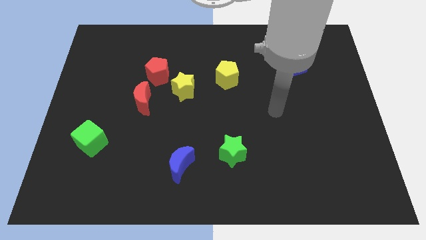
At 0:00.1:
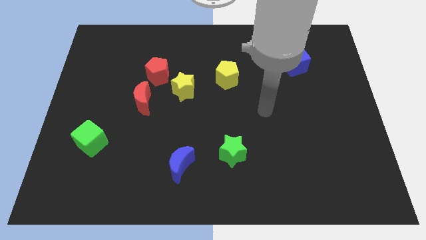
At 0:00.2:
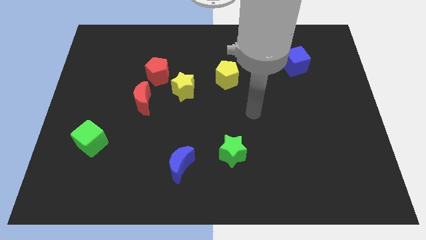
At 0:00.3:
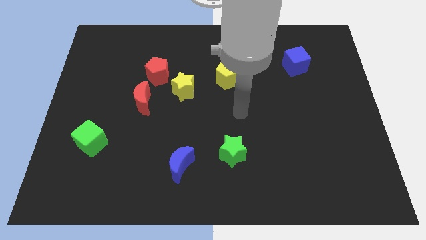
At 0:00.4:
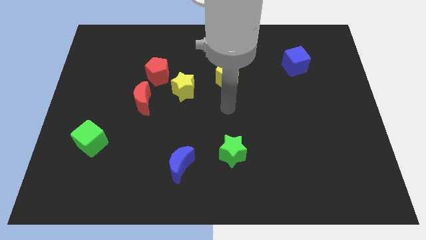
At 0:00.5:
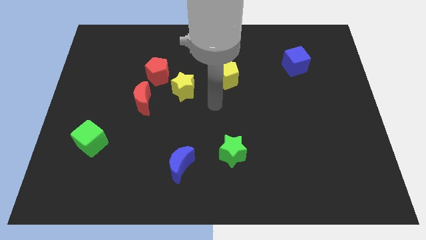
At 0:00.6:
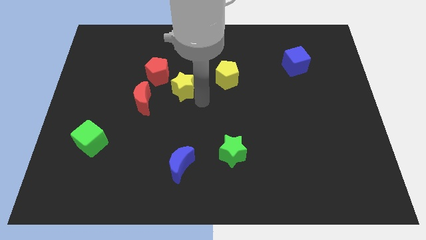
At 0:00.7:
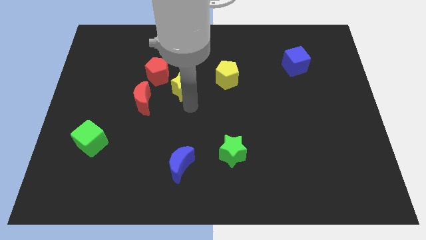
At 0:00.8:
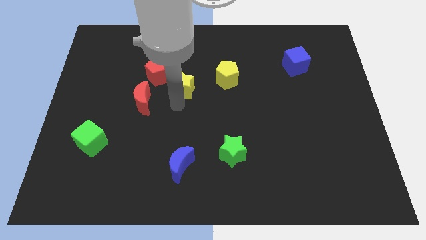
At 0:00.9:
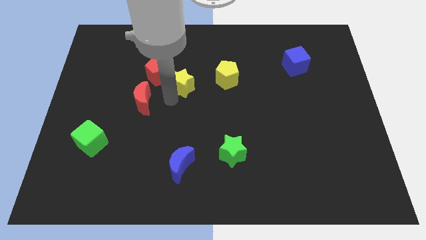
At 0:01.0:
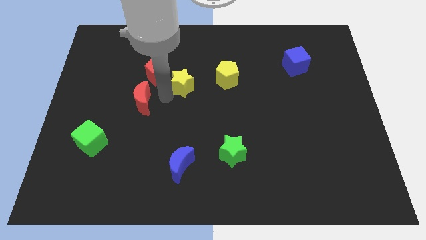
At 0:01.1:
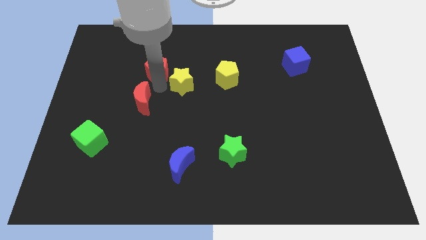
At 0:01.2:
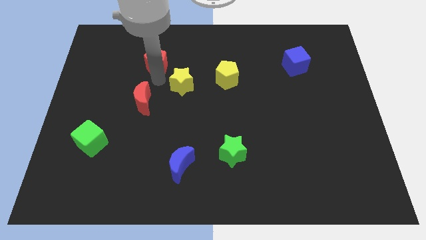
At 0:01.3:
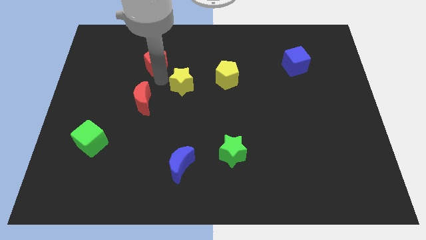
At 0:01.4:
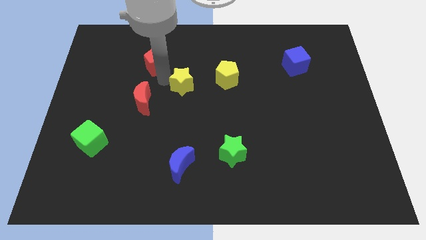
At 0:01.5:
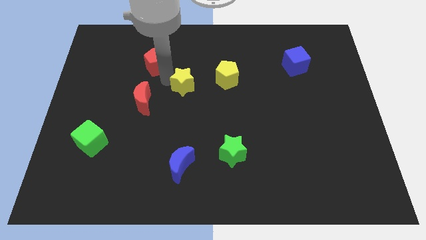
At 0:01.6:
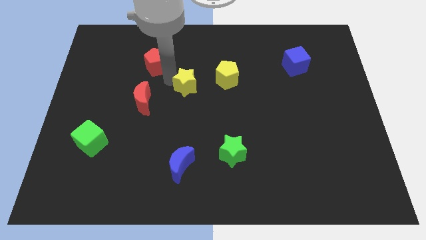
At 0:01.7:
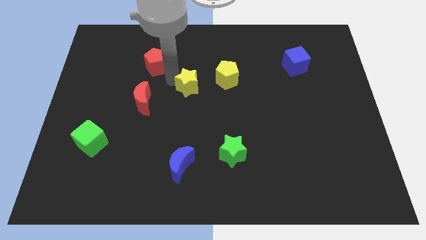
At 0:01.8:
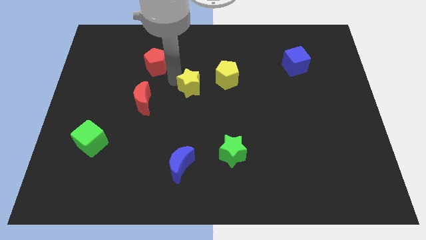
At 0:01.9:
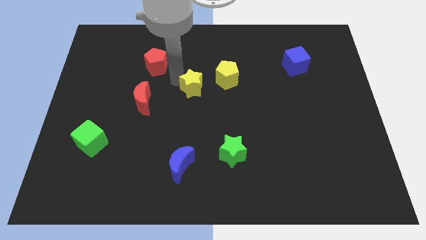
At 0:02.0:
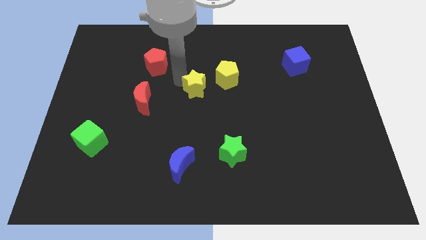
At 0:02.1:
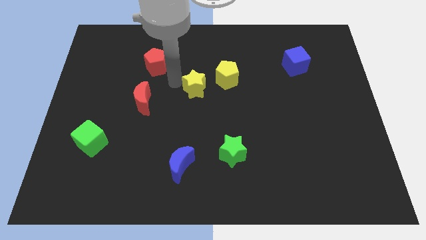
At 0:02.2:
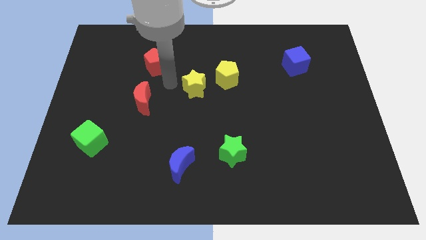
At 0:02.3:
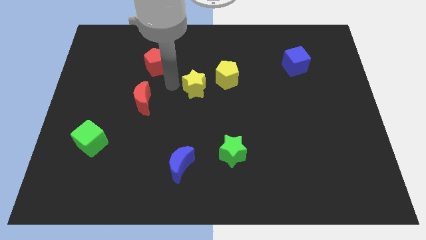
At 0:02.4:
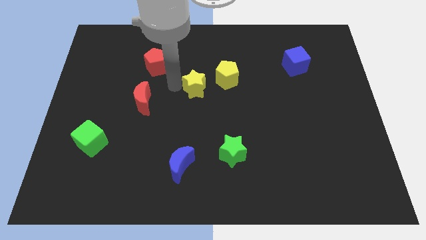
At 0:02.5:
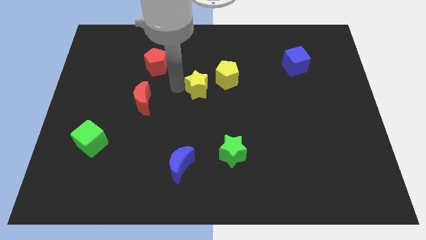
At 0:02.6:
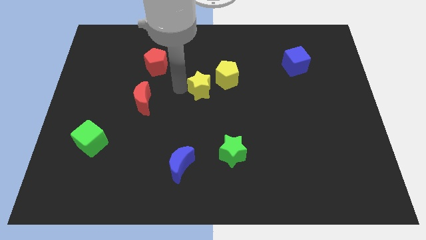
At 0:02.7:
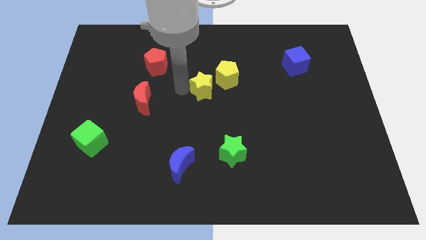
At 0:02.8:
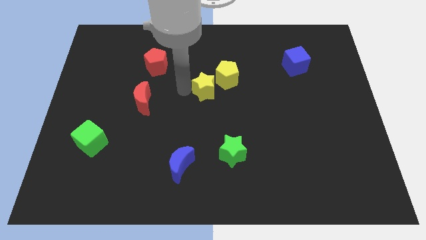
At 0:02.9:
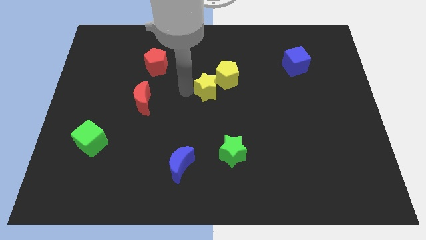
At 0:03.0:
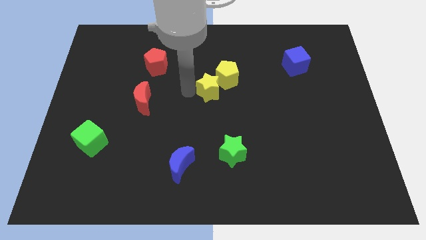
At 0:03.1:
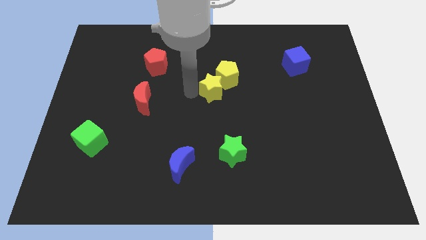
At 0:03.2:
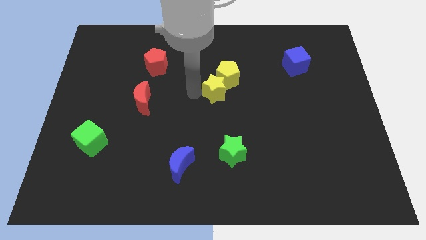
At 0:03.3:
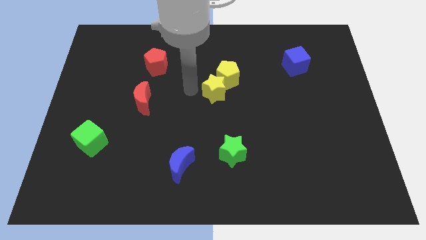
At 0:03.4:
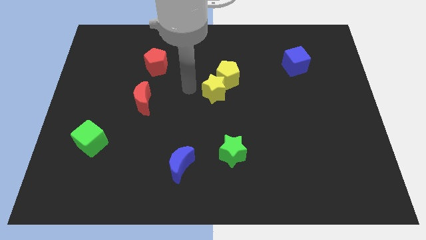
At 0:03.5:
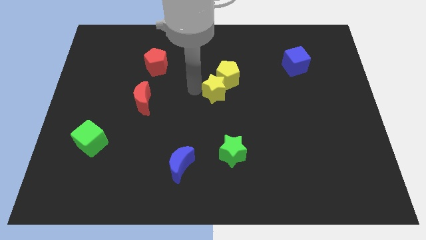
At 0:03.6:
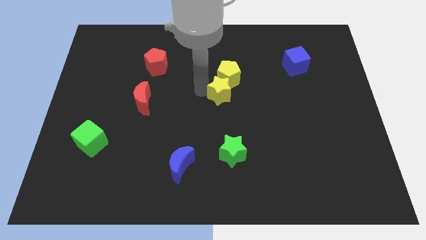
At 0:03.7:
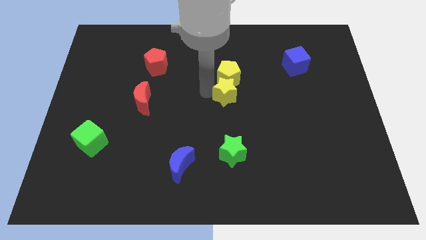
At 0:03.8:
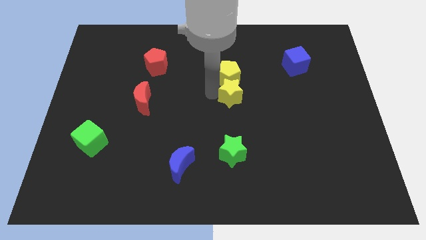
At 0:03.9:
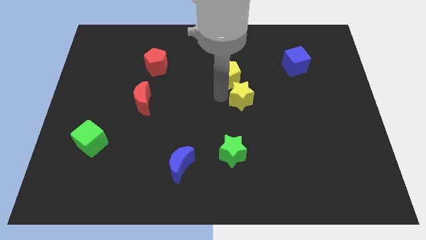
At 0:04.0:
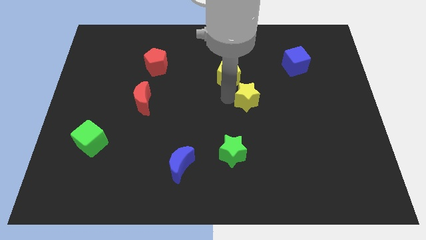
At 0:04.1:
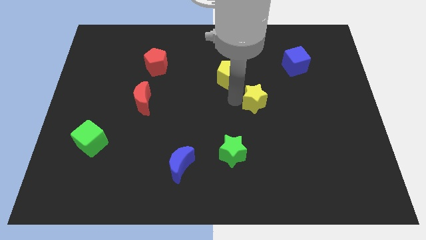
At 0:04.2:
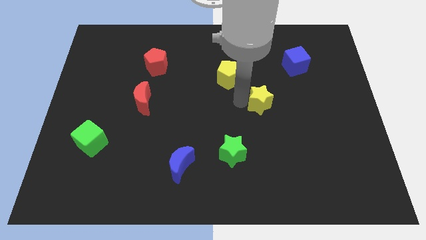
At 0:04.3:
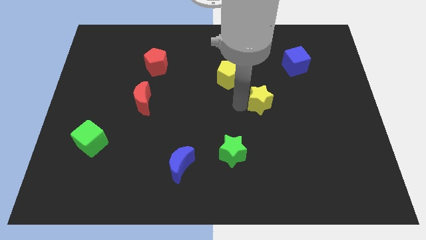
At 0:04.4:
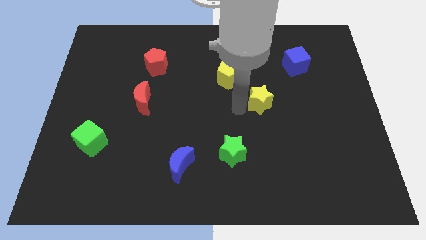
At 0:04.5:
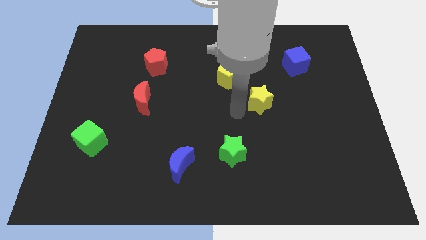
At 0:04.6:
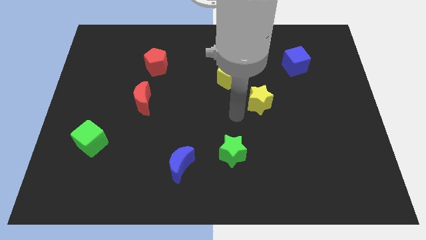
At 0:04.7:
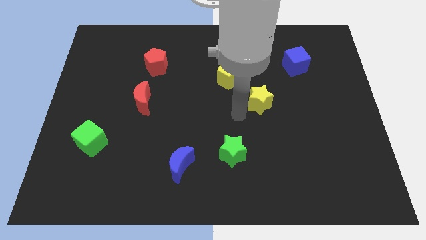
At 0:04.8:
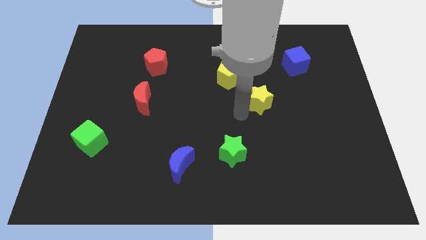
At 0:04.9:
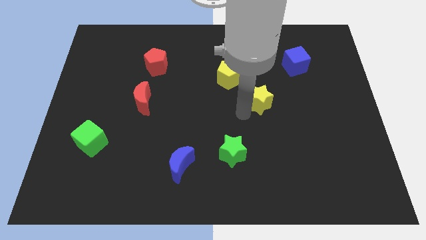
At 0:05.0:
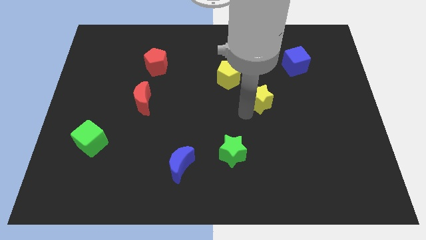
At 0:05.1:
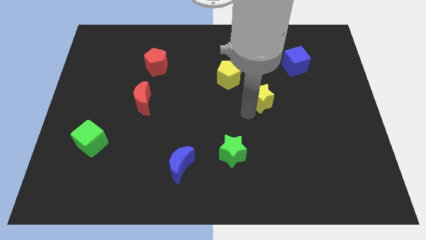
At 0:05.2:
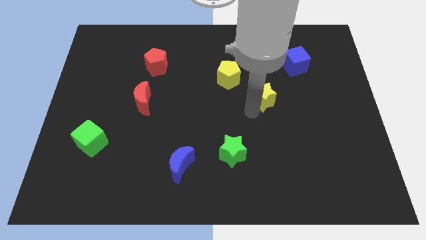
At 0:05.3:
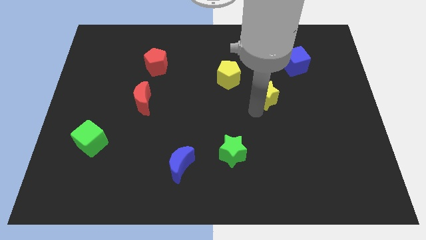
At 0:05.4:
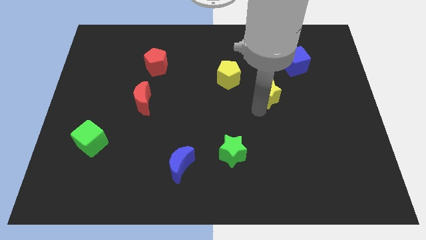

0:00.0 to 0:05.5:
slide the yellow star right

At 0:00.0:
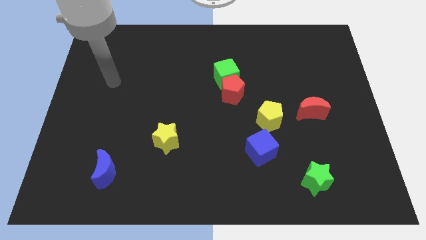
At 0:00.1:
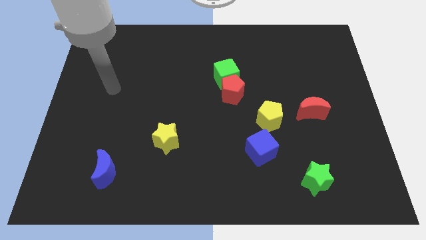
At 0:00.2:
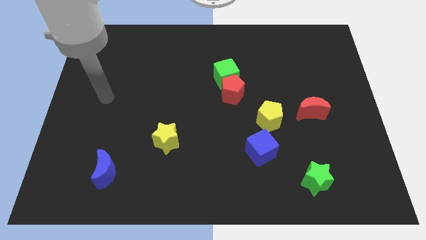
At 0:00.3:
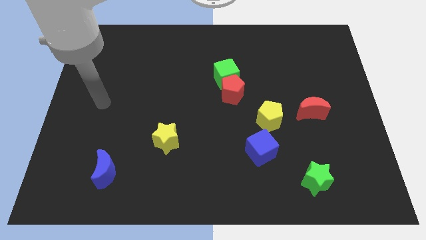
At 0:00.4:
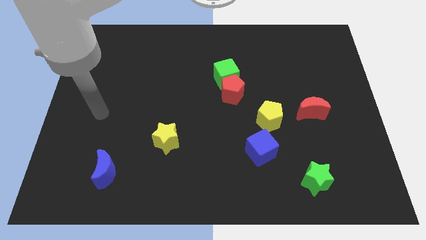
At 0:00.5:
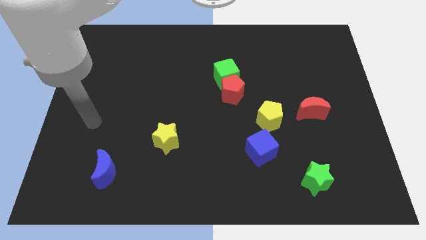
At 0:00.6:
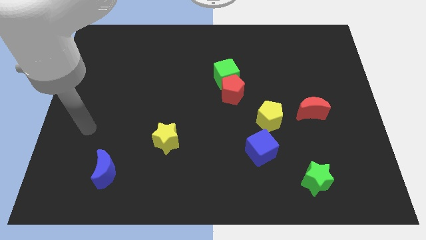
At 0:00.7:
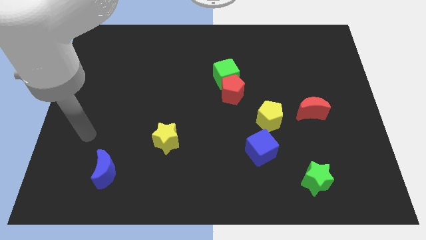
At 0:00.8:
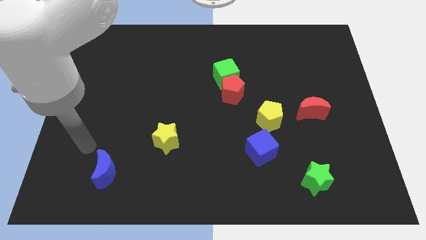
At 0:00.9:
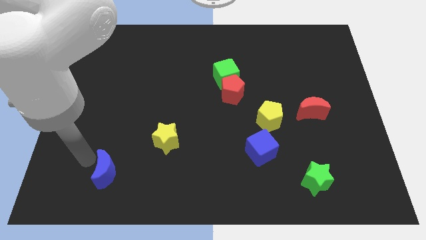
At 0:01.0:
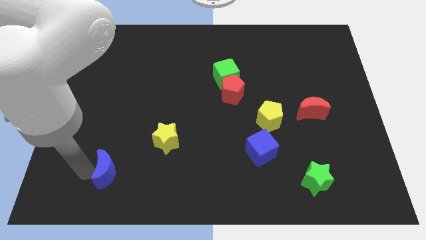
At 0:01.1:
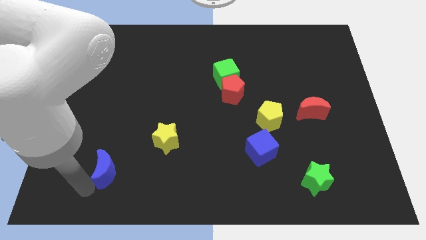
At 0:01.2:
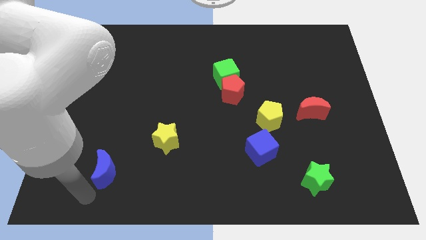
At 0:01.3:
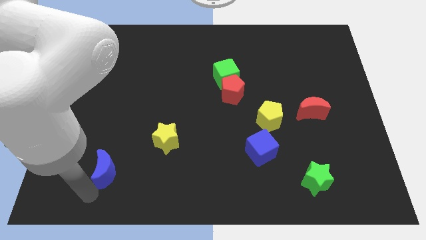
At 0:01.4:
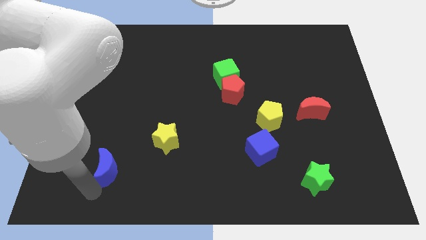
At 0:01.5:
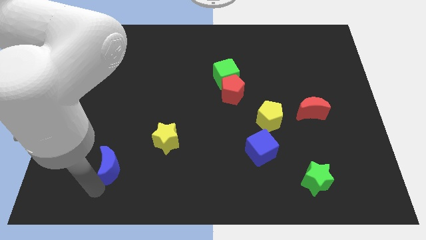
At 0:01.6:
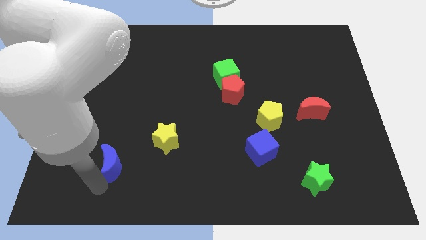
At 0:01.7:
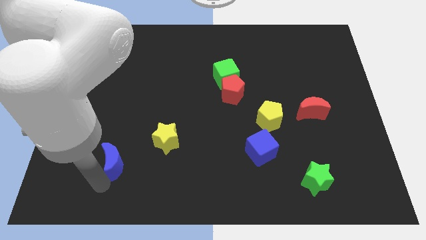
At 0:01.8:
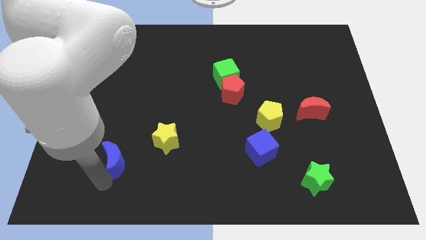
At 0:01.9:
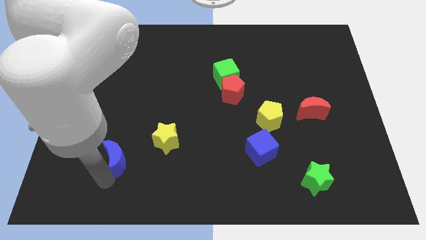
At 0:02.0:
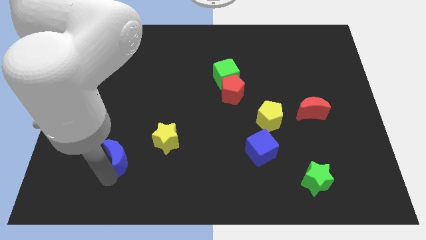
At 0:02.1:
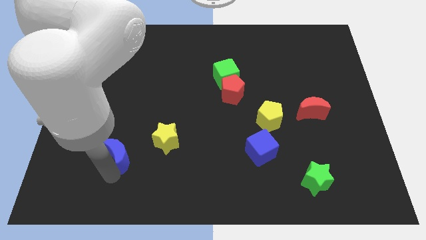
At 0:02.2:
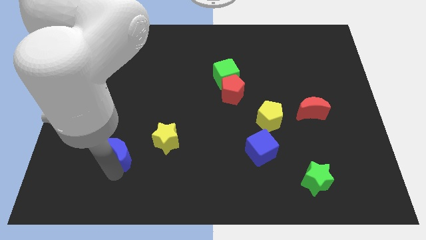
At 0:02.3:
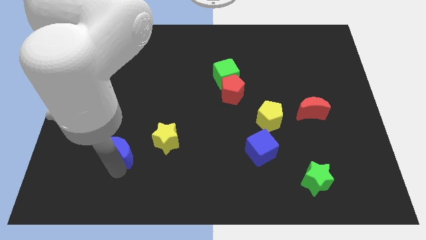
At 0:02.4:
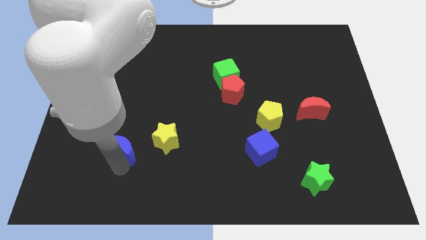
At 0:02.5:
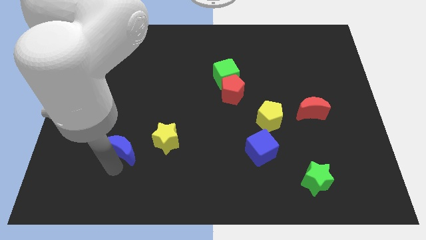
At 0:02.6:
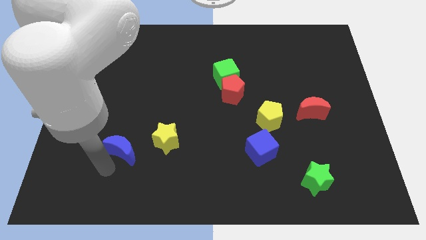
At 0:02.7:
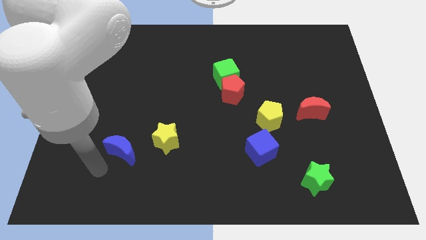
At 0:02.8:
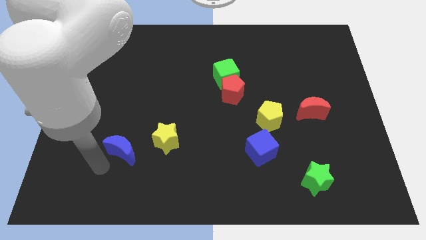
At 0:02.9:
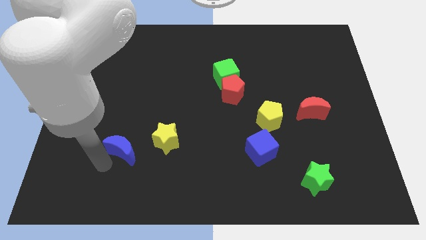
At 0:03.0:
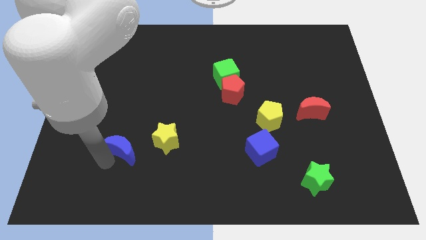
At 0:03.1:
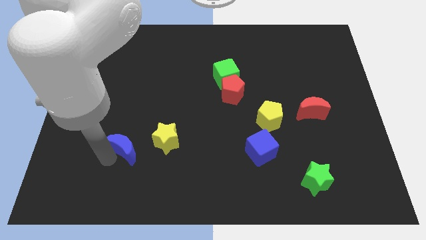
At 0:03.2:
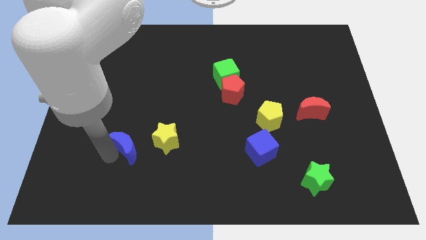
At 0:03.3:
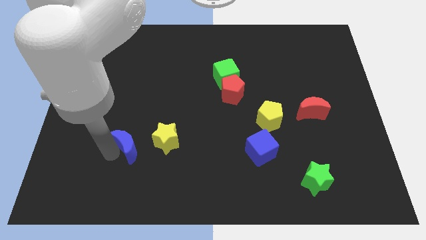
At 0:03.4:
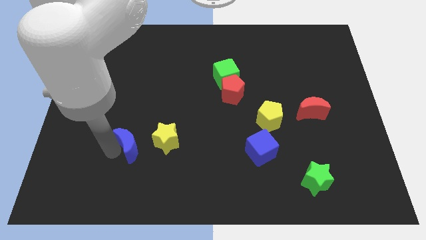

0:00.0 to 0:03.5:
push the blue moon a little bit up and to the right
